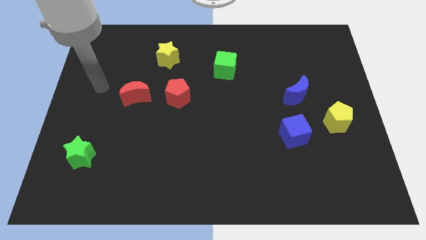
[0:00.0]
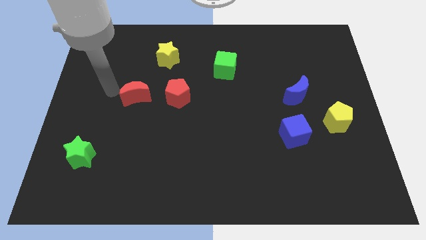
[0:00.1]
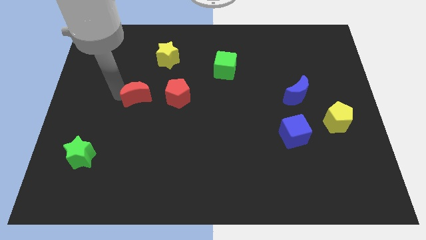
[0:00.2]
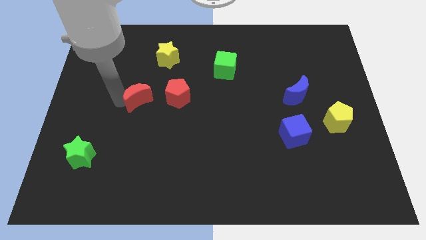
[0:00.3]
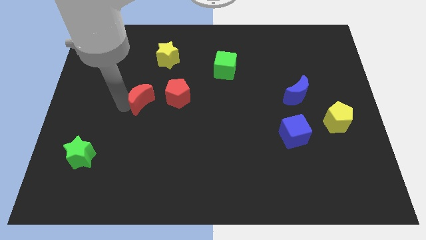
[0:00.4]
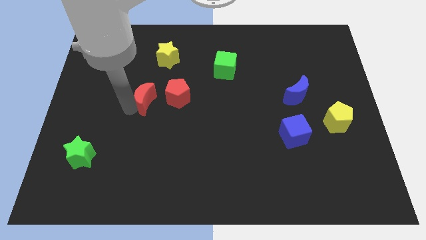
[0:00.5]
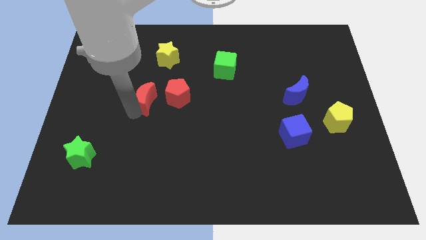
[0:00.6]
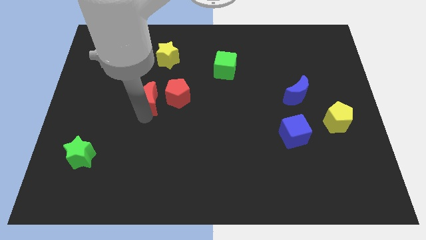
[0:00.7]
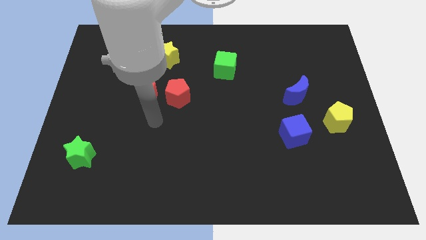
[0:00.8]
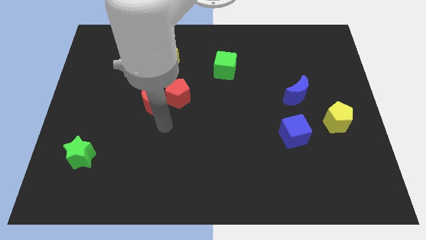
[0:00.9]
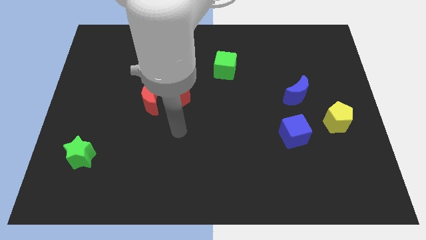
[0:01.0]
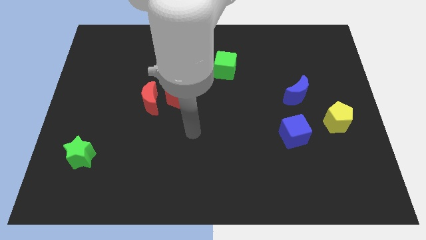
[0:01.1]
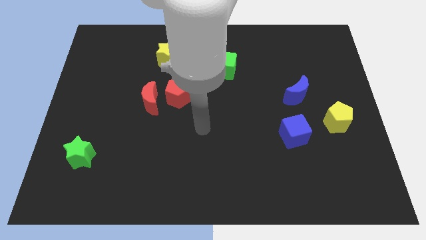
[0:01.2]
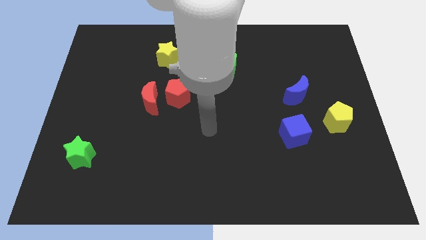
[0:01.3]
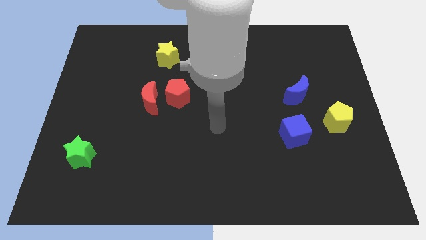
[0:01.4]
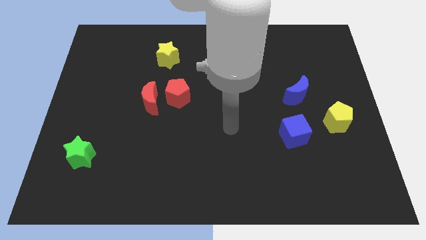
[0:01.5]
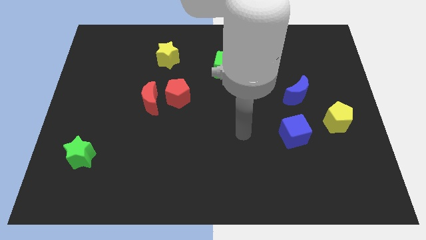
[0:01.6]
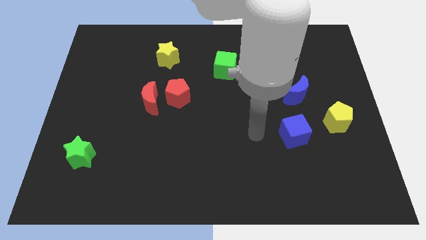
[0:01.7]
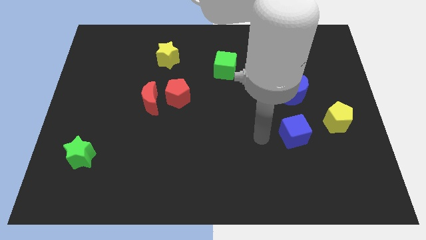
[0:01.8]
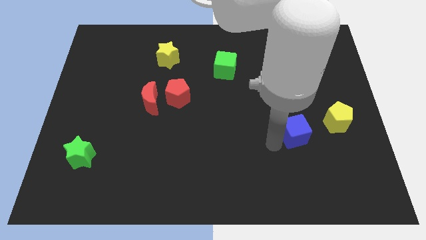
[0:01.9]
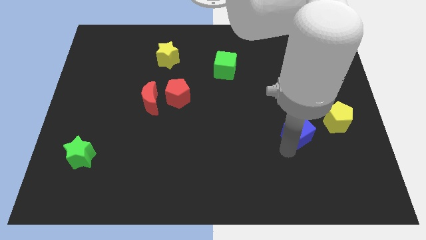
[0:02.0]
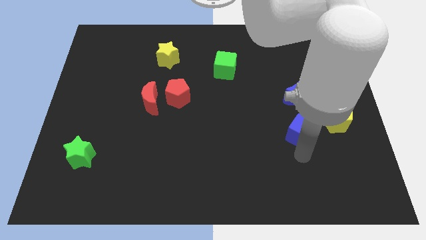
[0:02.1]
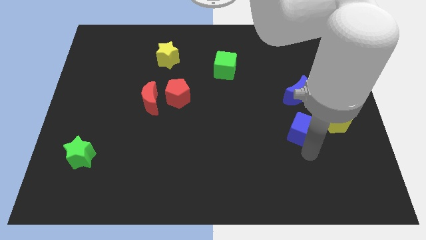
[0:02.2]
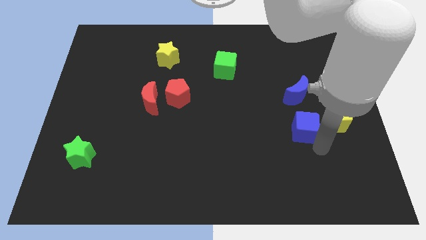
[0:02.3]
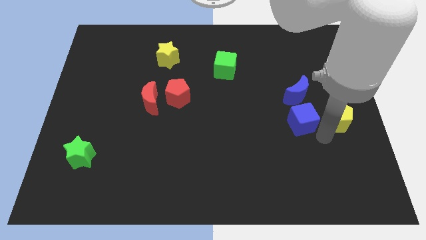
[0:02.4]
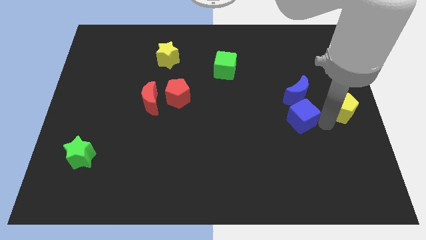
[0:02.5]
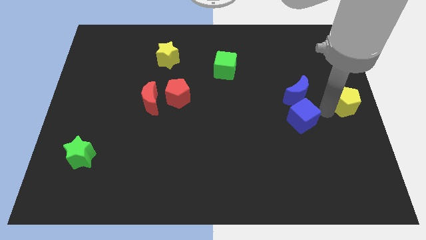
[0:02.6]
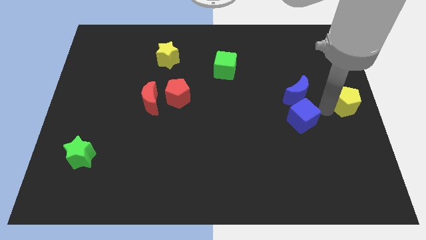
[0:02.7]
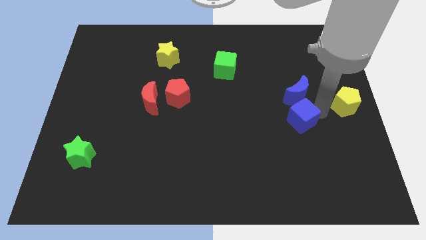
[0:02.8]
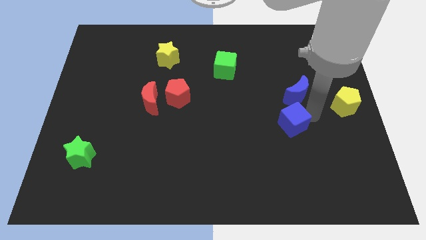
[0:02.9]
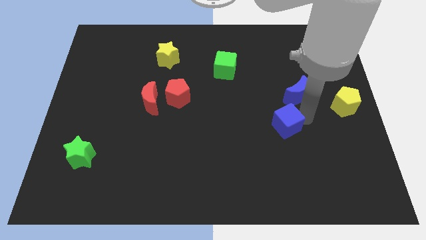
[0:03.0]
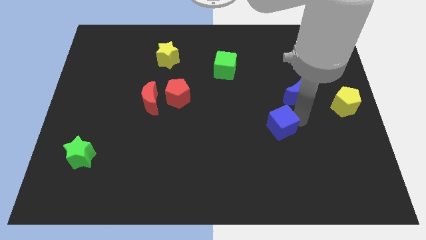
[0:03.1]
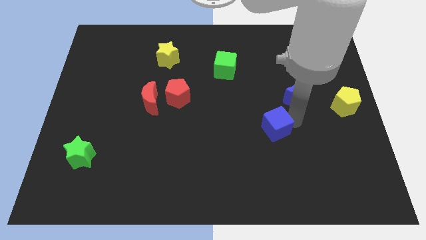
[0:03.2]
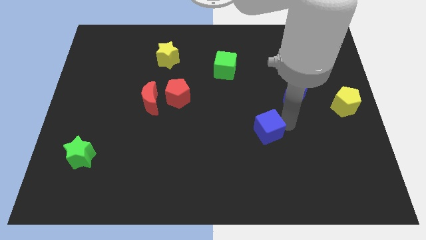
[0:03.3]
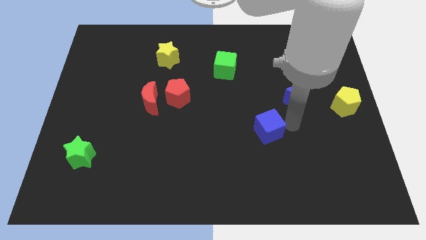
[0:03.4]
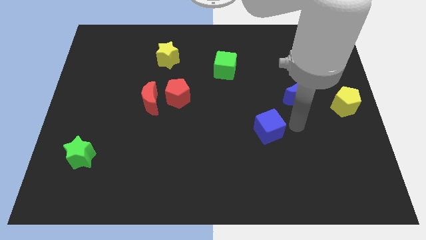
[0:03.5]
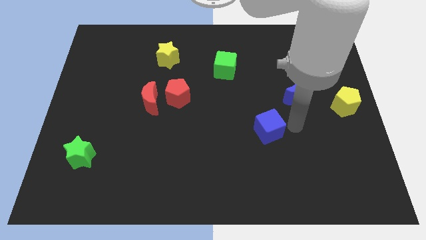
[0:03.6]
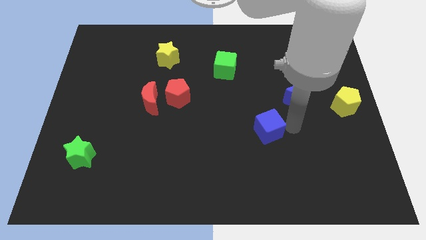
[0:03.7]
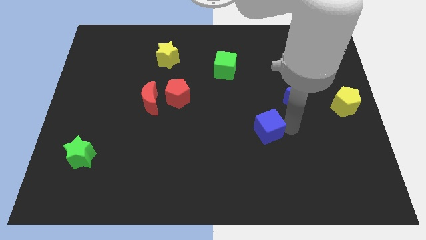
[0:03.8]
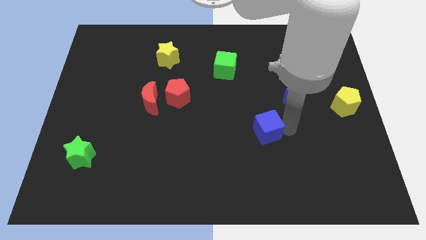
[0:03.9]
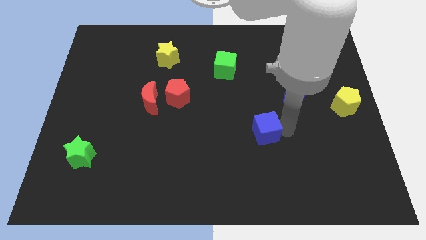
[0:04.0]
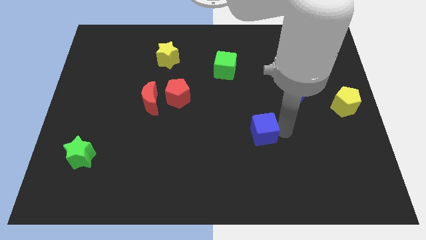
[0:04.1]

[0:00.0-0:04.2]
move the blue cube a little bit left

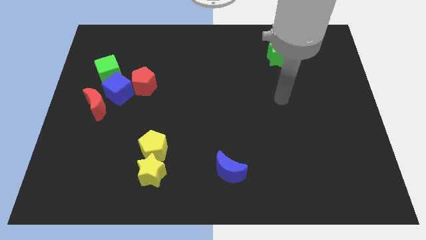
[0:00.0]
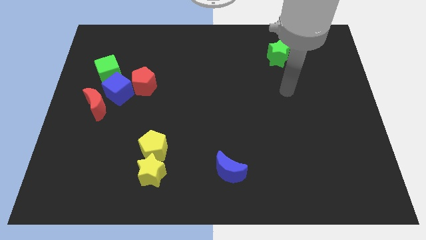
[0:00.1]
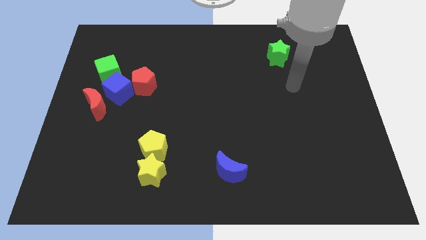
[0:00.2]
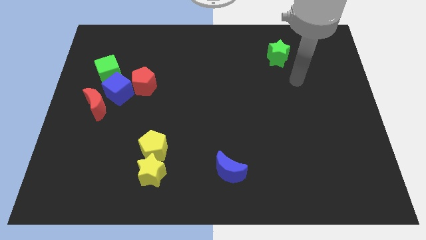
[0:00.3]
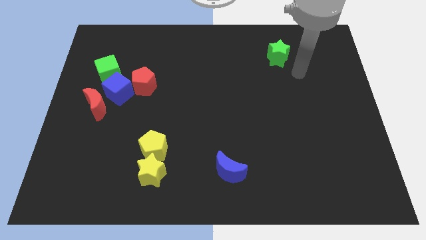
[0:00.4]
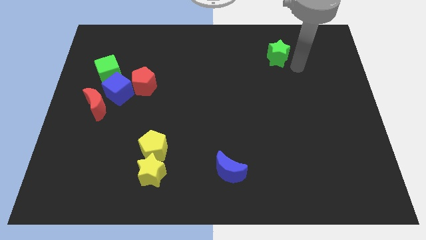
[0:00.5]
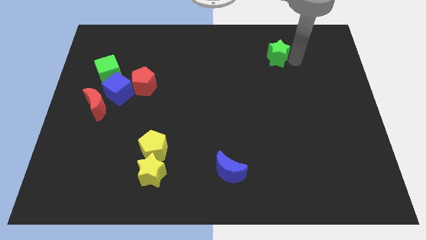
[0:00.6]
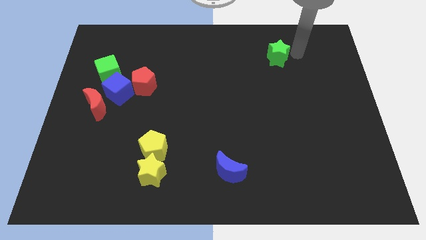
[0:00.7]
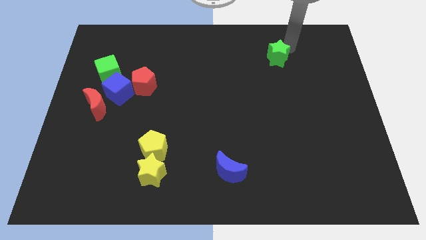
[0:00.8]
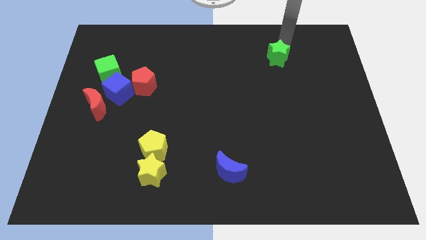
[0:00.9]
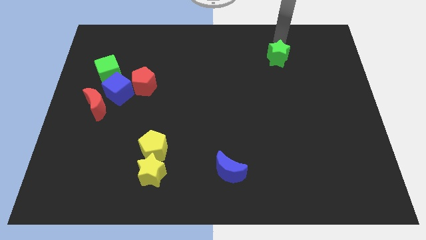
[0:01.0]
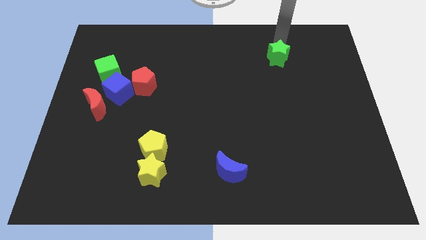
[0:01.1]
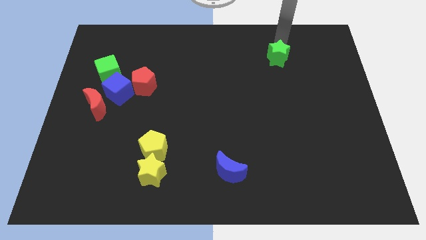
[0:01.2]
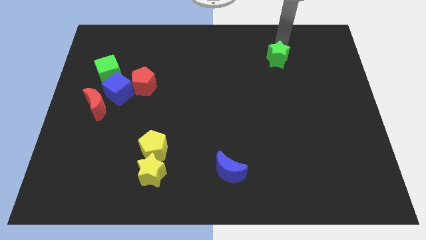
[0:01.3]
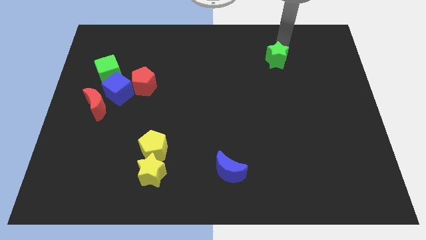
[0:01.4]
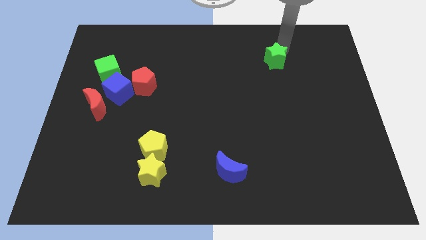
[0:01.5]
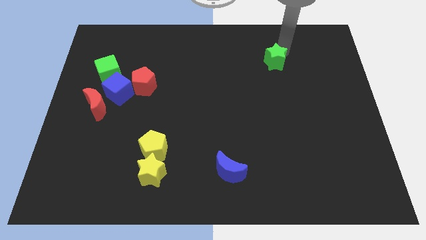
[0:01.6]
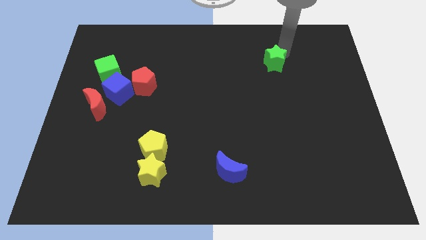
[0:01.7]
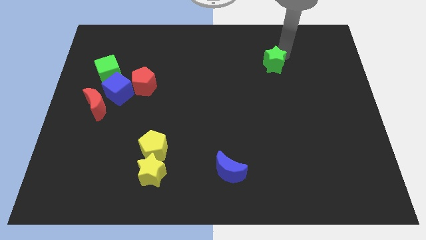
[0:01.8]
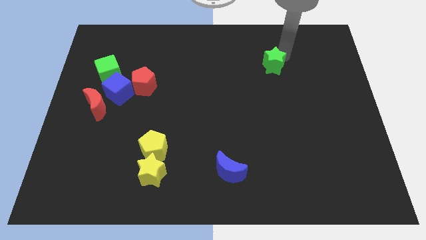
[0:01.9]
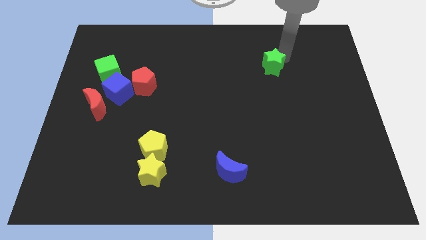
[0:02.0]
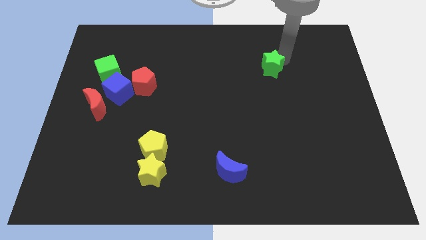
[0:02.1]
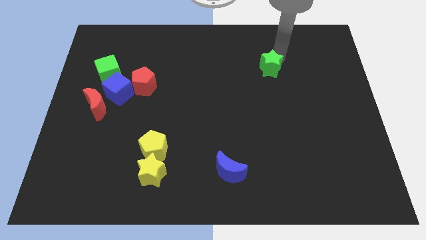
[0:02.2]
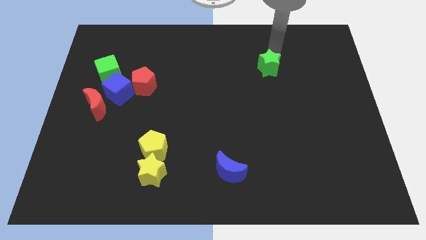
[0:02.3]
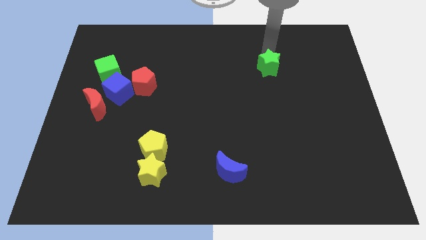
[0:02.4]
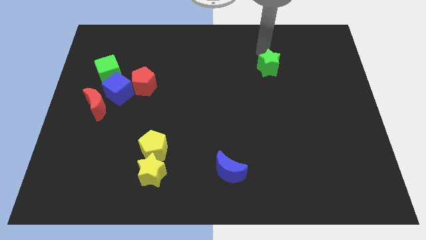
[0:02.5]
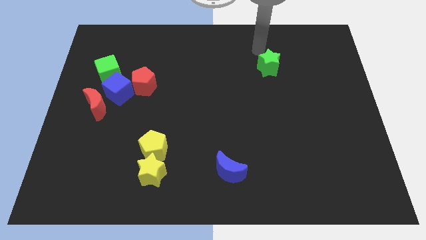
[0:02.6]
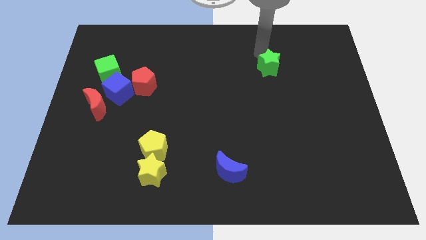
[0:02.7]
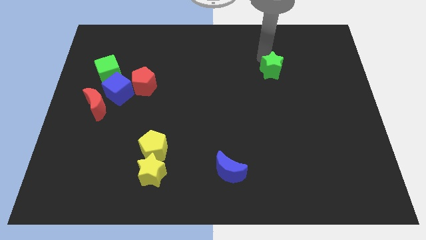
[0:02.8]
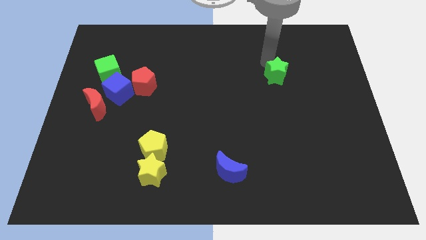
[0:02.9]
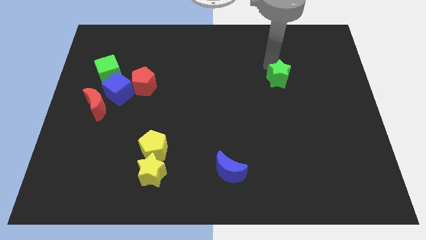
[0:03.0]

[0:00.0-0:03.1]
move the green star slightly down

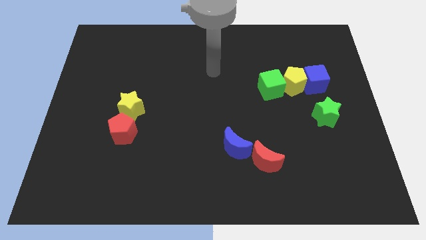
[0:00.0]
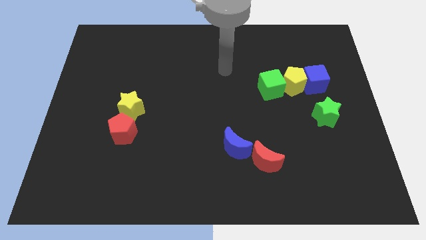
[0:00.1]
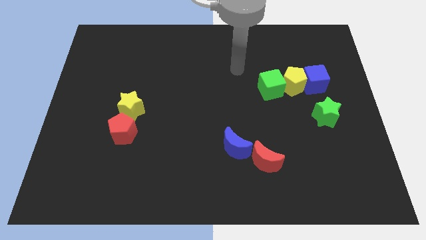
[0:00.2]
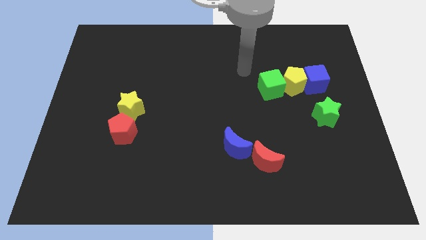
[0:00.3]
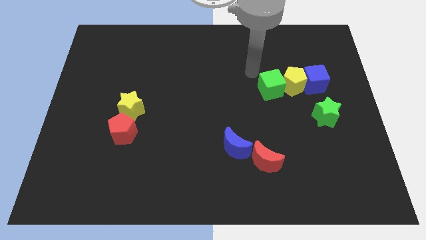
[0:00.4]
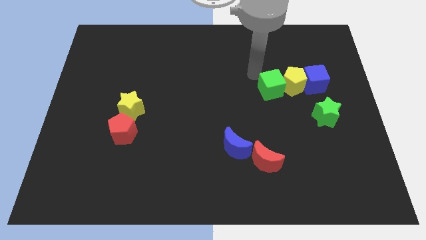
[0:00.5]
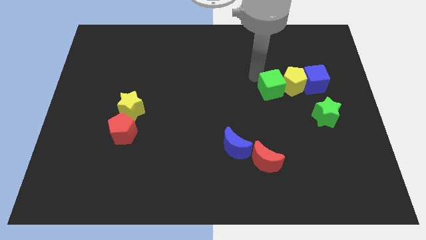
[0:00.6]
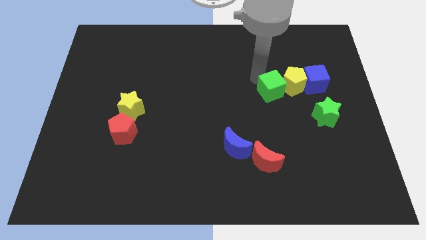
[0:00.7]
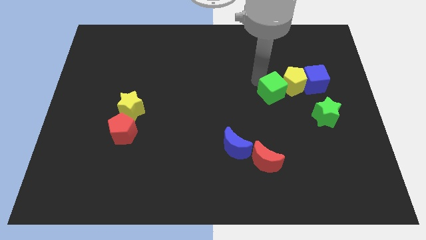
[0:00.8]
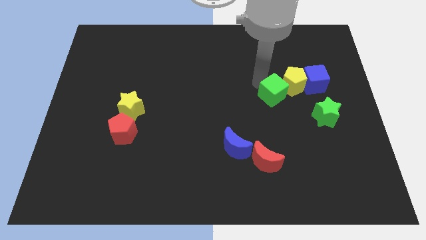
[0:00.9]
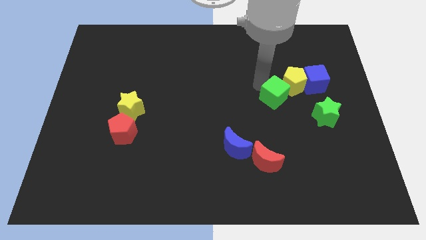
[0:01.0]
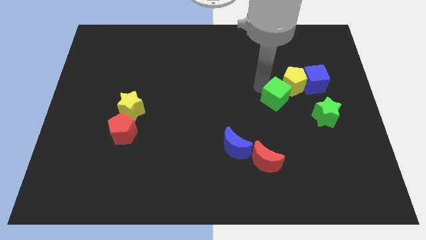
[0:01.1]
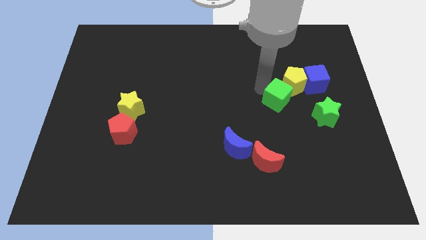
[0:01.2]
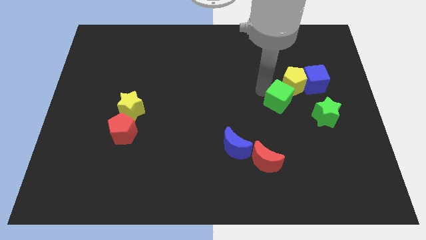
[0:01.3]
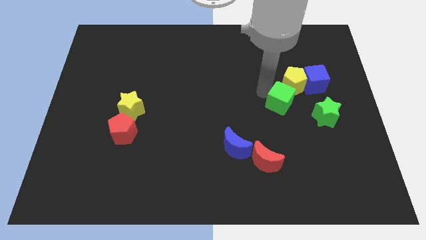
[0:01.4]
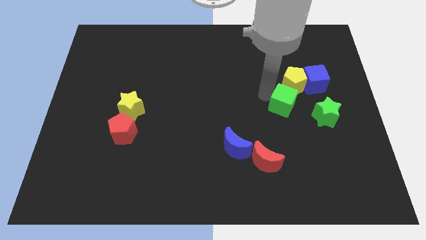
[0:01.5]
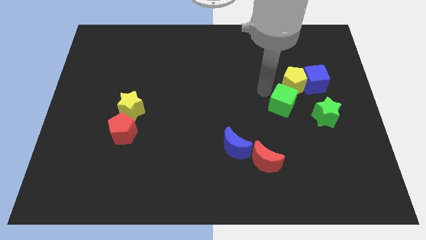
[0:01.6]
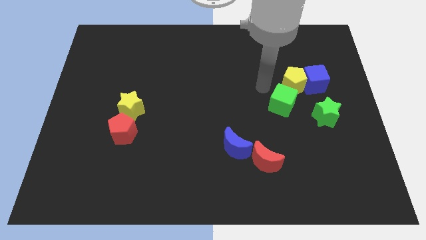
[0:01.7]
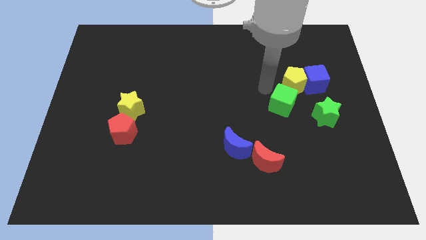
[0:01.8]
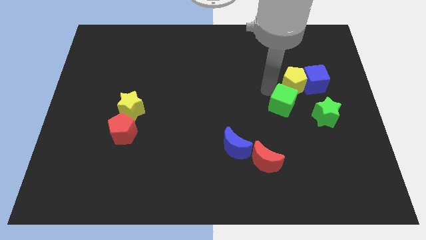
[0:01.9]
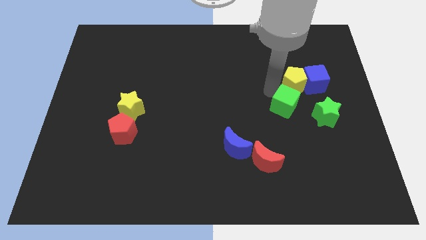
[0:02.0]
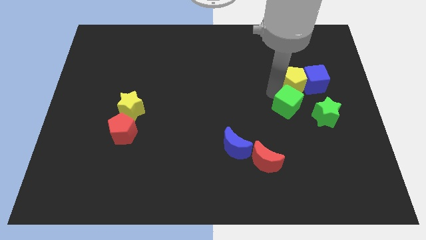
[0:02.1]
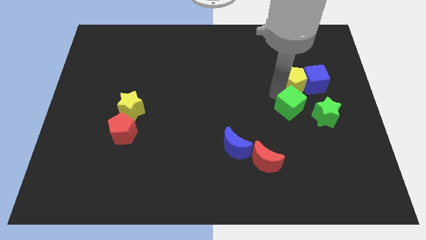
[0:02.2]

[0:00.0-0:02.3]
slide the green cube downwards and to the right a little bit
